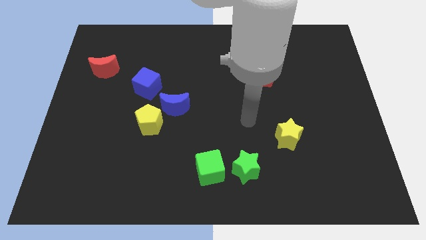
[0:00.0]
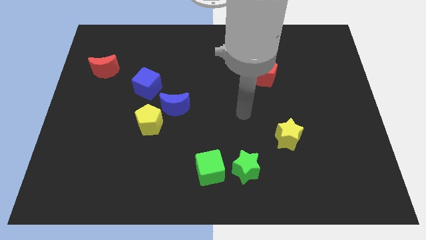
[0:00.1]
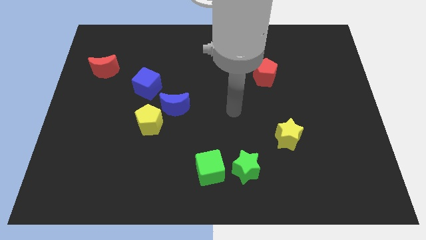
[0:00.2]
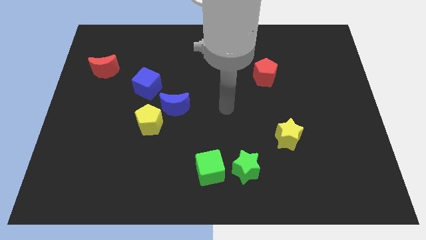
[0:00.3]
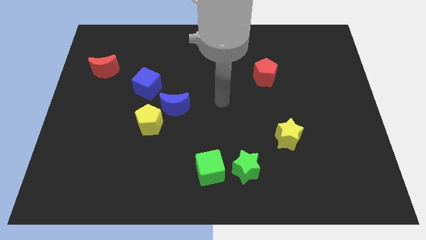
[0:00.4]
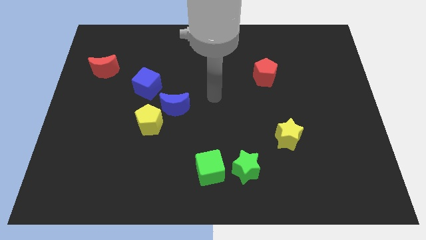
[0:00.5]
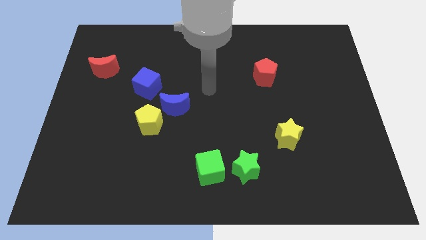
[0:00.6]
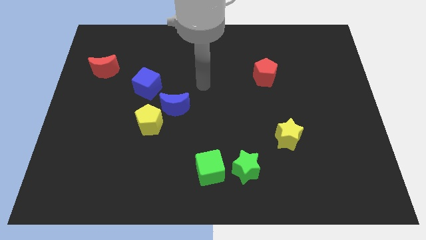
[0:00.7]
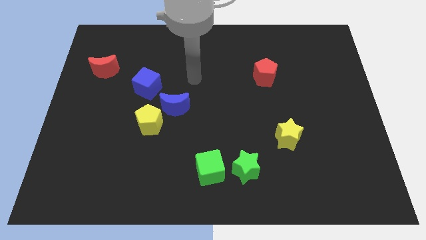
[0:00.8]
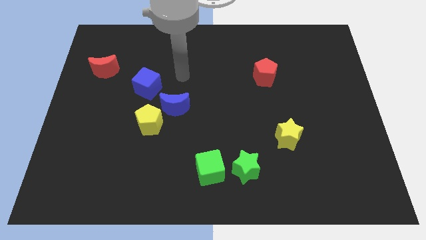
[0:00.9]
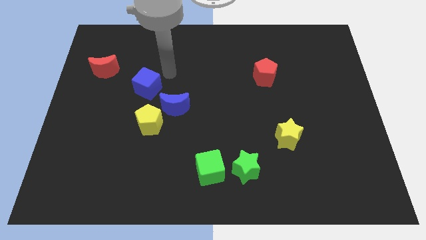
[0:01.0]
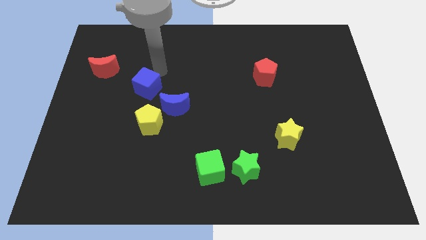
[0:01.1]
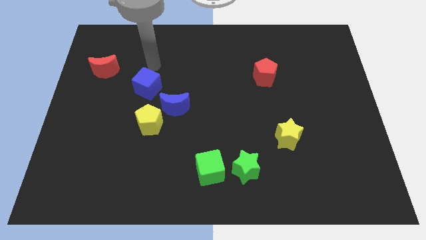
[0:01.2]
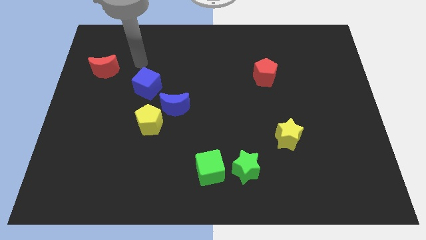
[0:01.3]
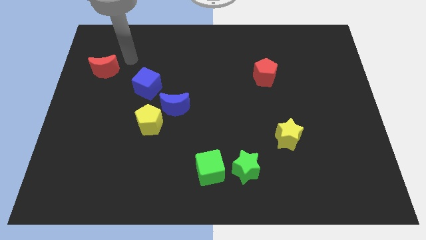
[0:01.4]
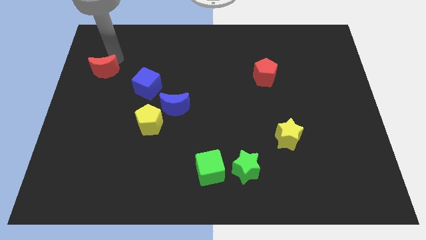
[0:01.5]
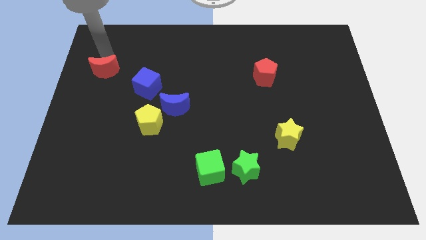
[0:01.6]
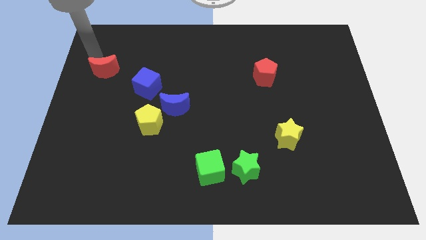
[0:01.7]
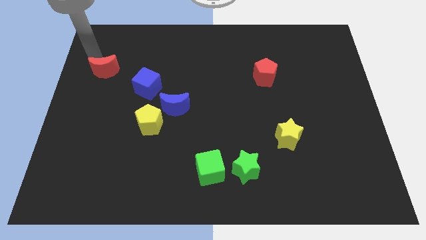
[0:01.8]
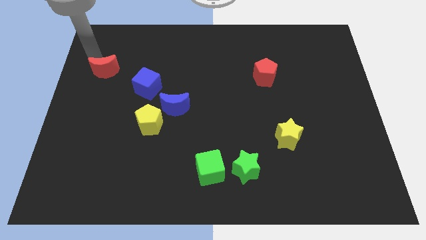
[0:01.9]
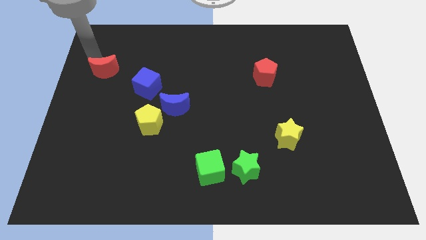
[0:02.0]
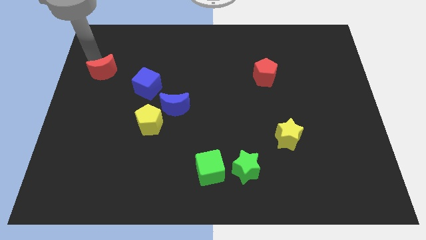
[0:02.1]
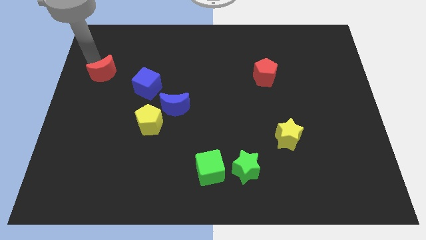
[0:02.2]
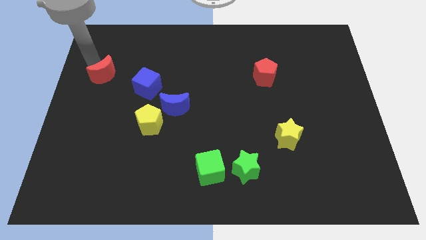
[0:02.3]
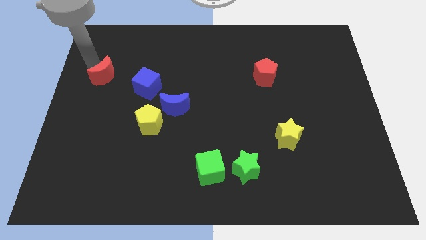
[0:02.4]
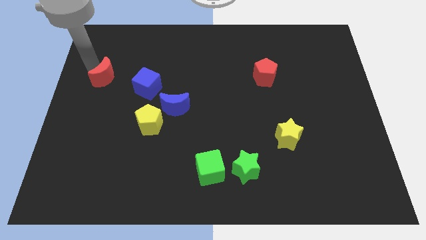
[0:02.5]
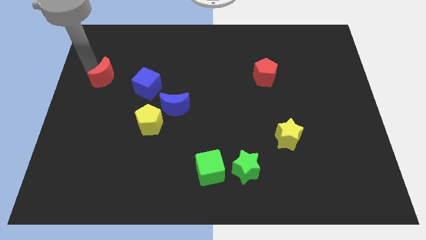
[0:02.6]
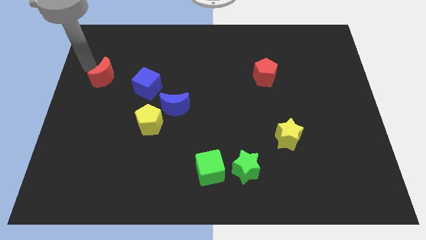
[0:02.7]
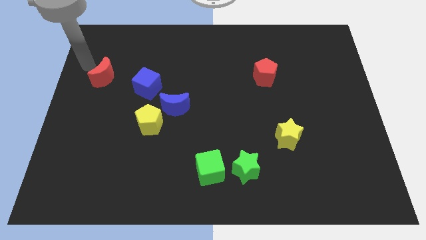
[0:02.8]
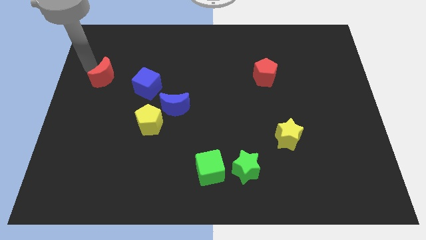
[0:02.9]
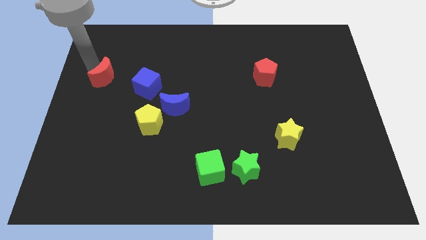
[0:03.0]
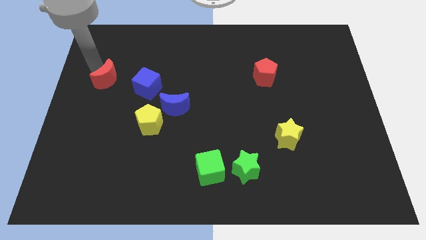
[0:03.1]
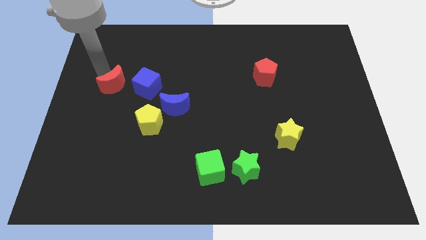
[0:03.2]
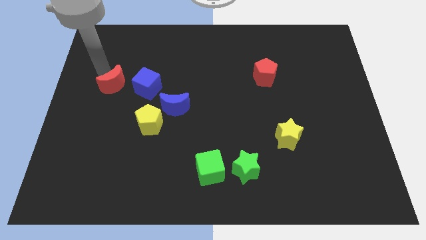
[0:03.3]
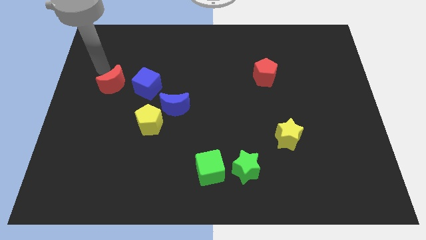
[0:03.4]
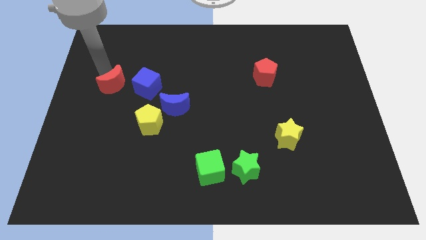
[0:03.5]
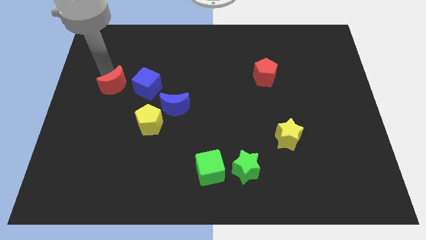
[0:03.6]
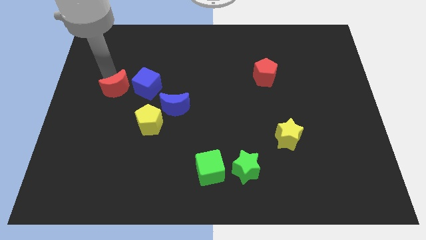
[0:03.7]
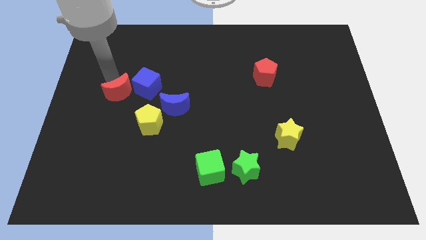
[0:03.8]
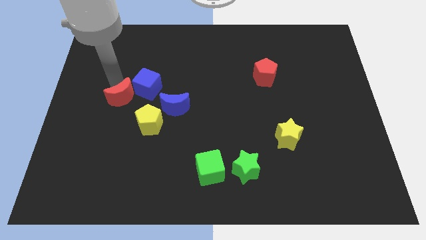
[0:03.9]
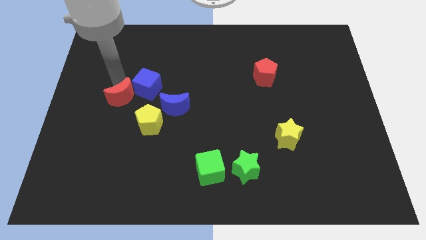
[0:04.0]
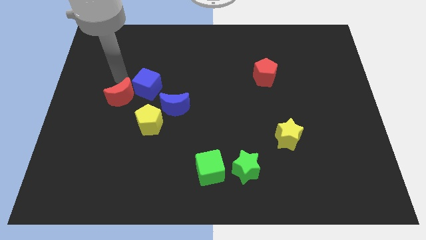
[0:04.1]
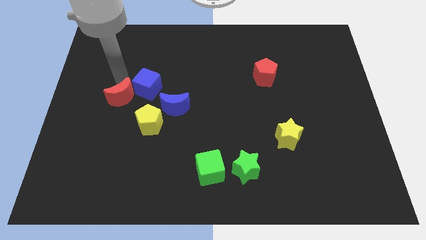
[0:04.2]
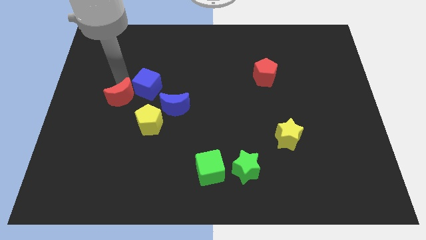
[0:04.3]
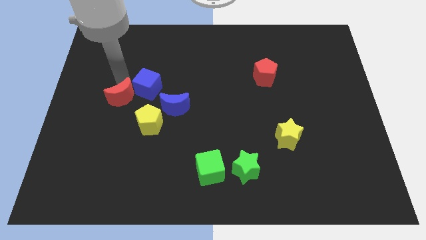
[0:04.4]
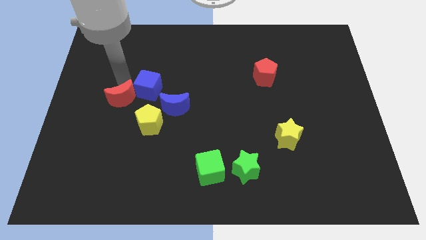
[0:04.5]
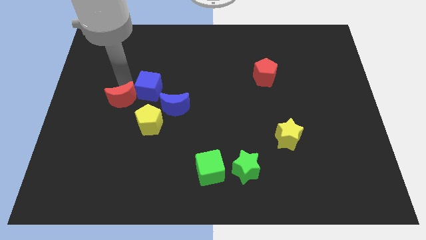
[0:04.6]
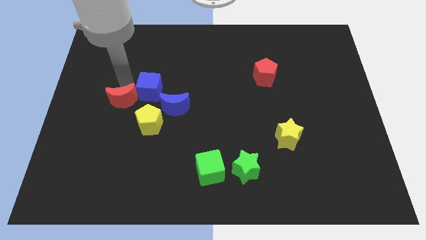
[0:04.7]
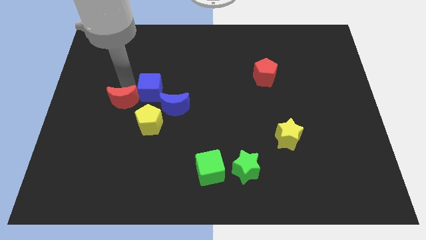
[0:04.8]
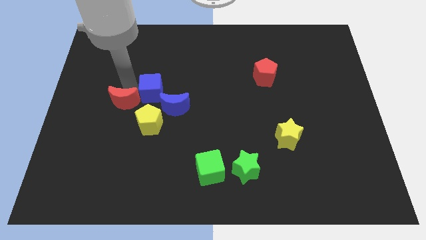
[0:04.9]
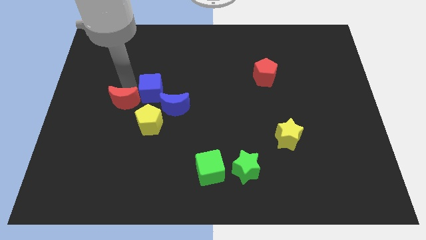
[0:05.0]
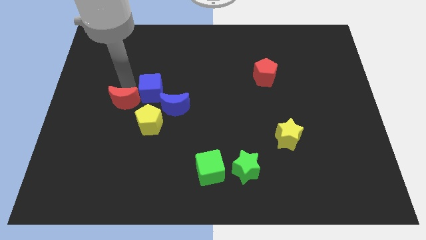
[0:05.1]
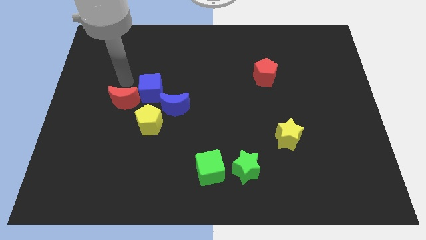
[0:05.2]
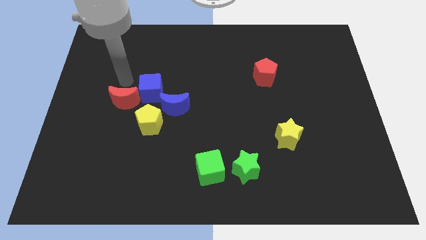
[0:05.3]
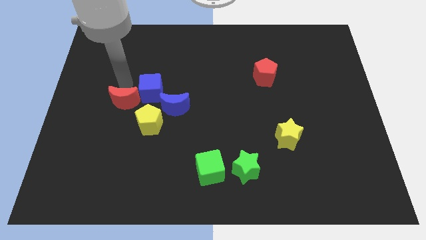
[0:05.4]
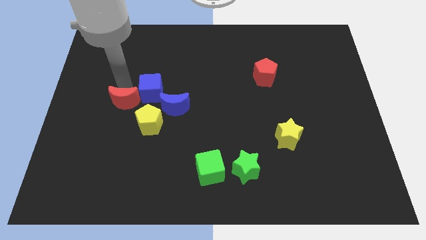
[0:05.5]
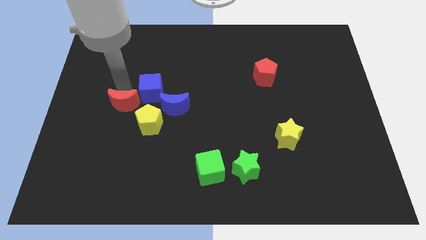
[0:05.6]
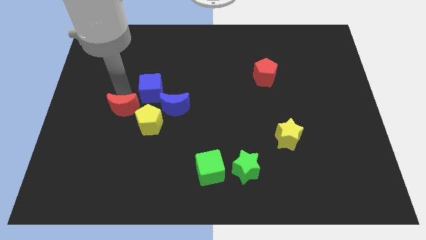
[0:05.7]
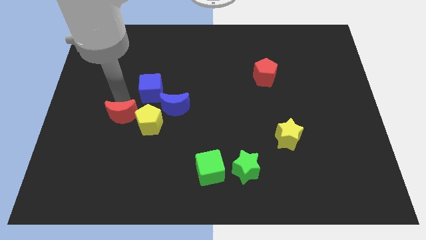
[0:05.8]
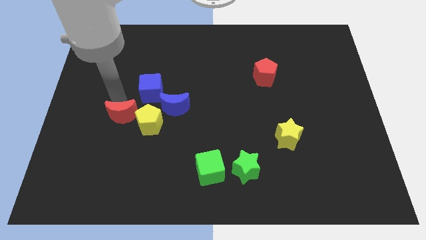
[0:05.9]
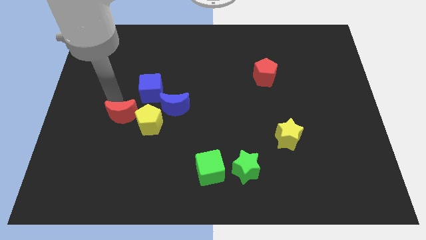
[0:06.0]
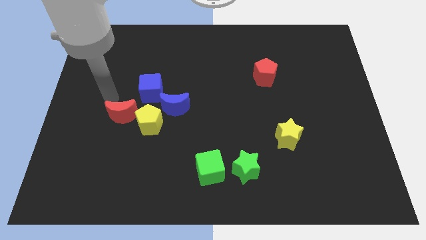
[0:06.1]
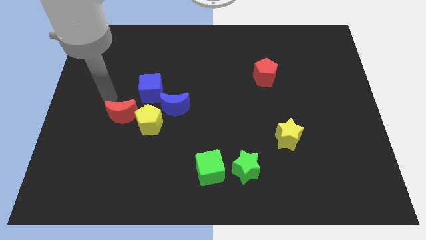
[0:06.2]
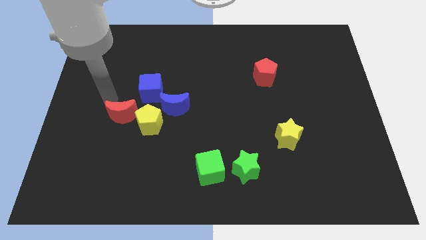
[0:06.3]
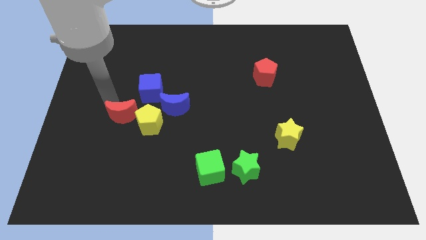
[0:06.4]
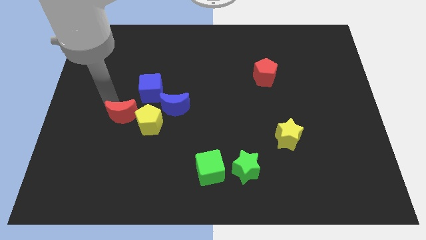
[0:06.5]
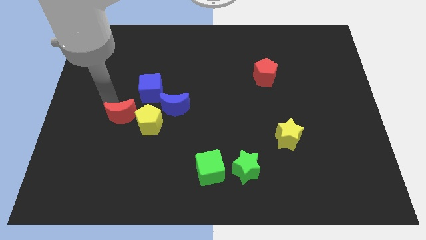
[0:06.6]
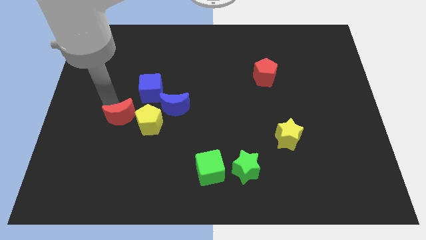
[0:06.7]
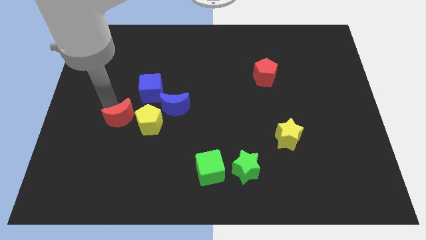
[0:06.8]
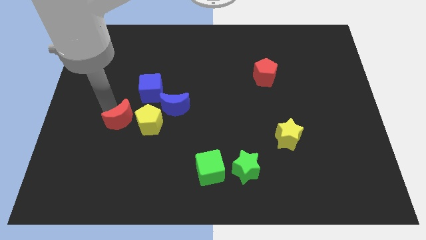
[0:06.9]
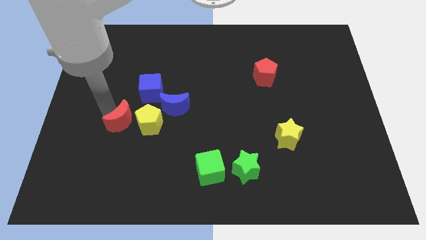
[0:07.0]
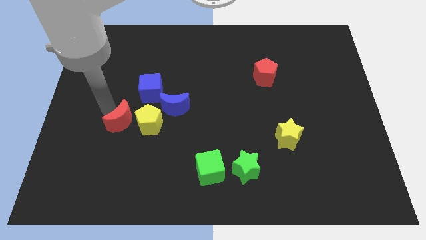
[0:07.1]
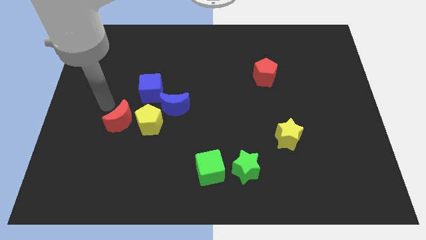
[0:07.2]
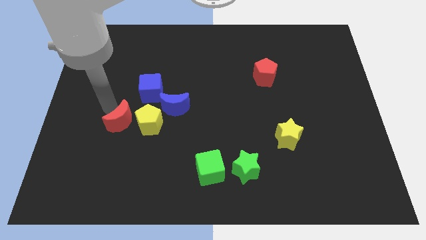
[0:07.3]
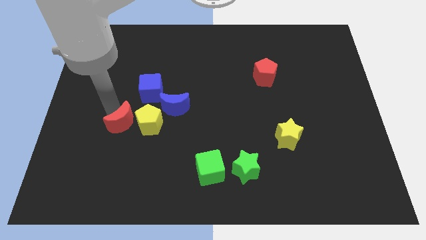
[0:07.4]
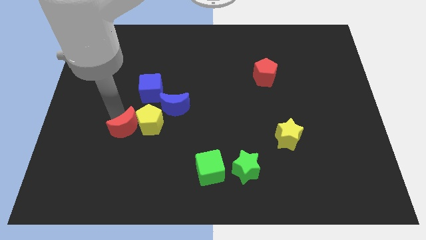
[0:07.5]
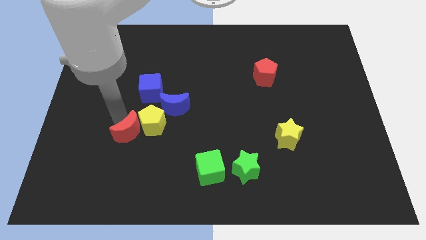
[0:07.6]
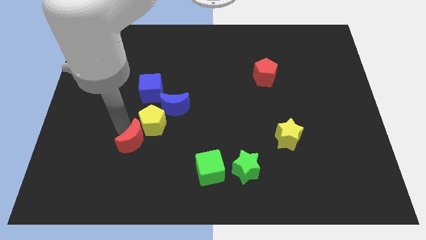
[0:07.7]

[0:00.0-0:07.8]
push the red moon downwards and then right

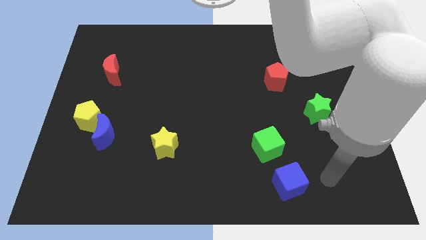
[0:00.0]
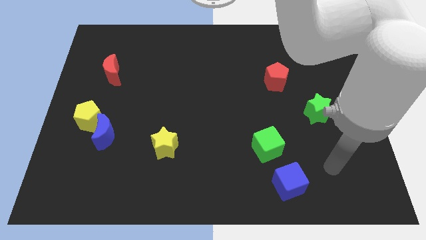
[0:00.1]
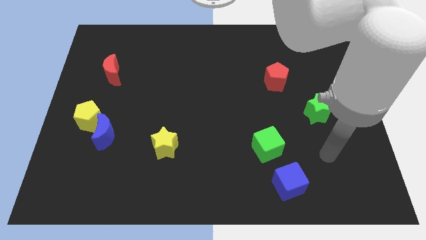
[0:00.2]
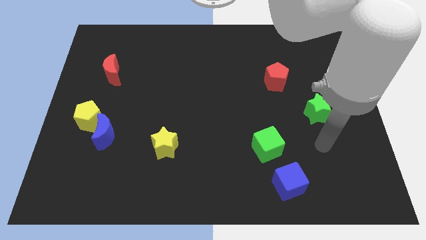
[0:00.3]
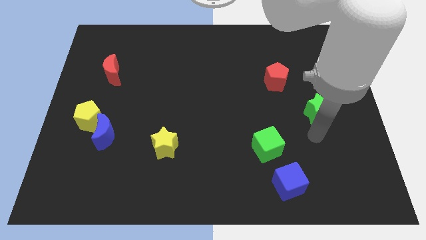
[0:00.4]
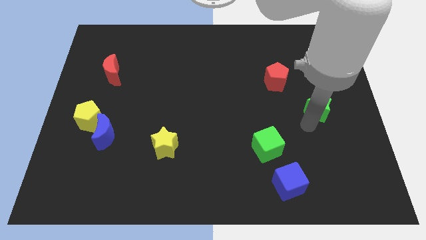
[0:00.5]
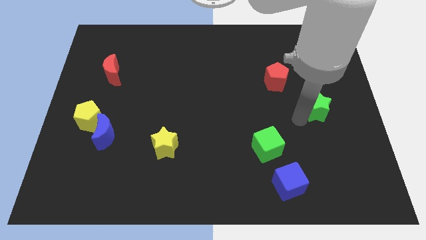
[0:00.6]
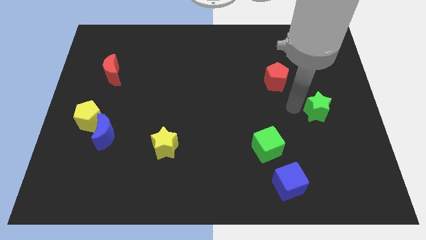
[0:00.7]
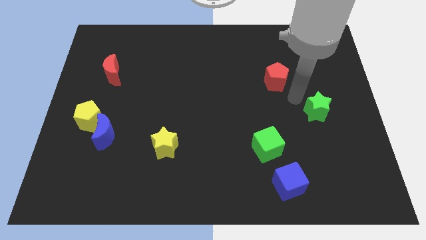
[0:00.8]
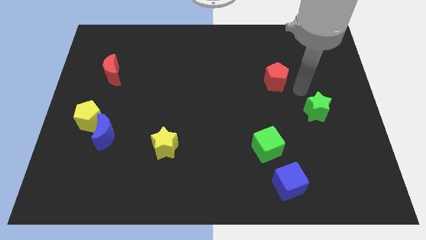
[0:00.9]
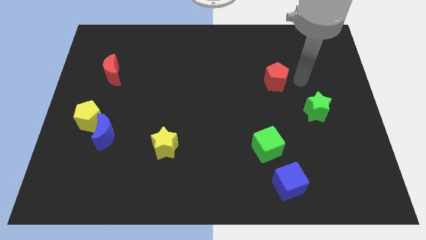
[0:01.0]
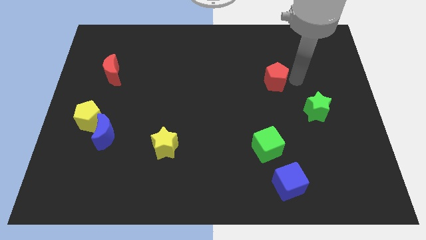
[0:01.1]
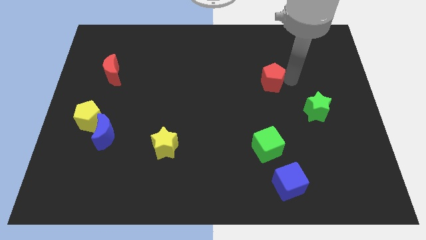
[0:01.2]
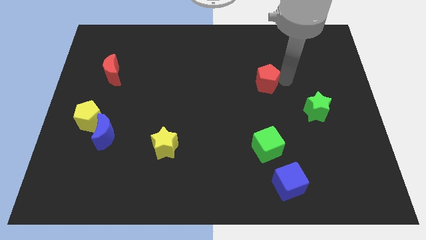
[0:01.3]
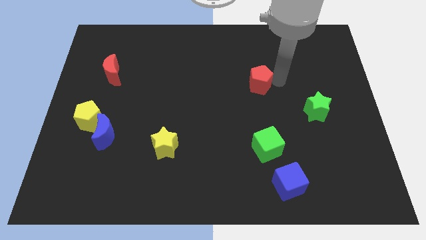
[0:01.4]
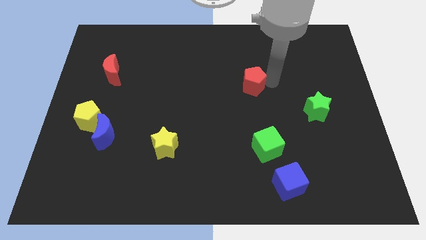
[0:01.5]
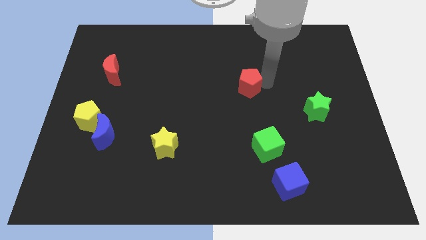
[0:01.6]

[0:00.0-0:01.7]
slightly slide the red pentagon left
